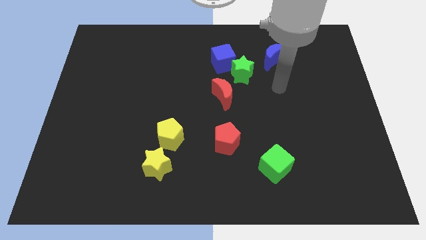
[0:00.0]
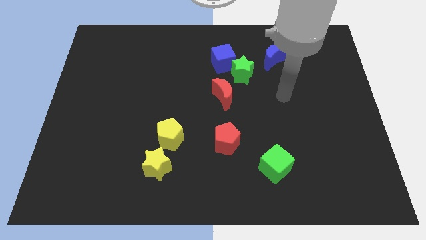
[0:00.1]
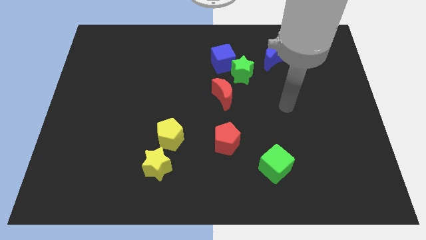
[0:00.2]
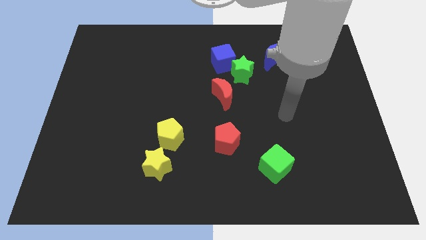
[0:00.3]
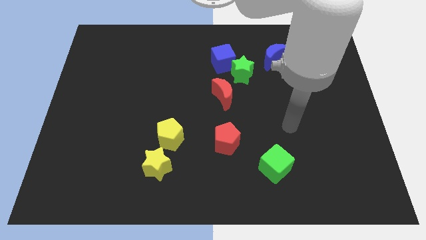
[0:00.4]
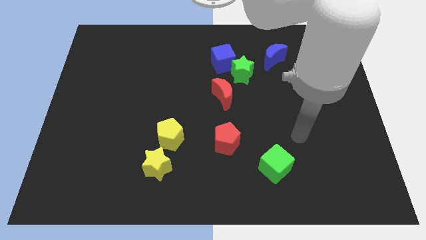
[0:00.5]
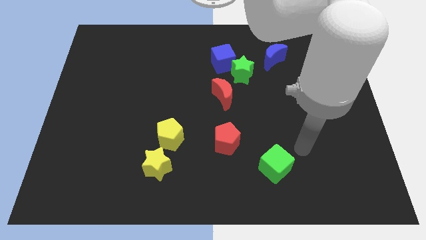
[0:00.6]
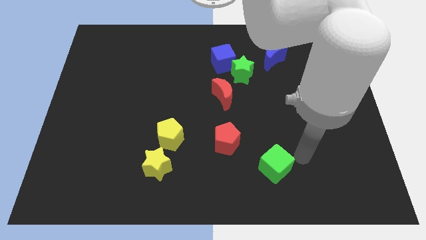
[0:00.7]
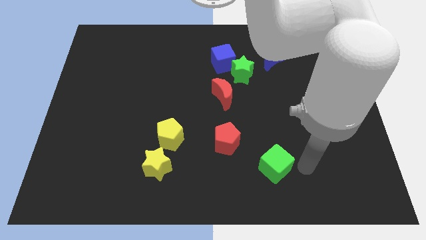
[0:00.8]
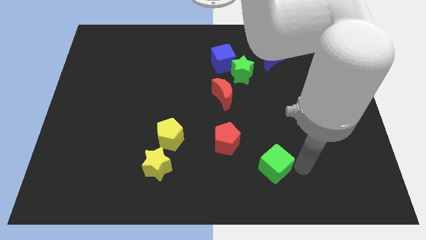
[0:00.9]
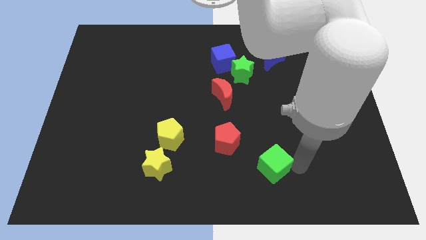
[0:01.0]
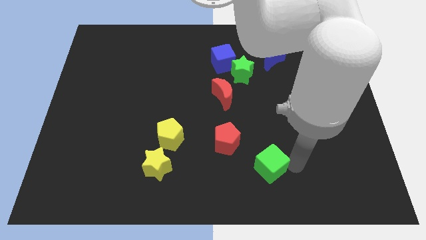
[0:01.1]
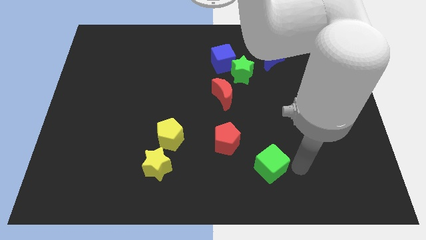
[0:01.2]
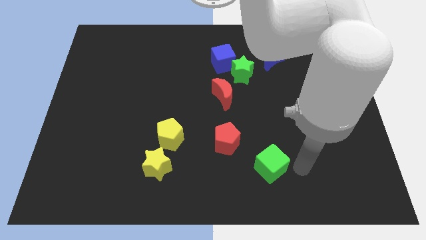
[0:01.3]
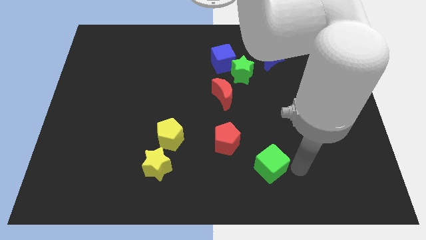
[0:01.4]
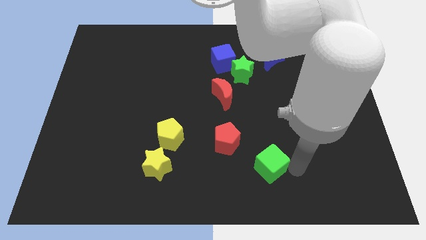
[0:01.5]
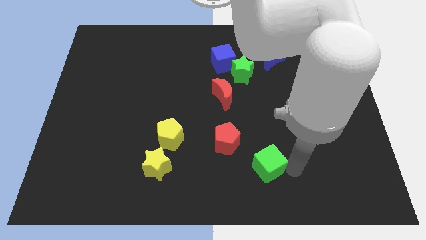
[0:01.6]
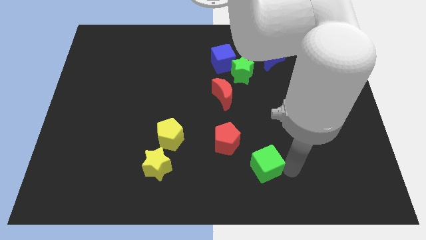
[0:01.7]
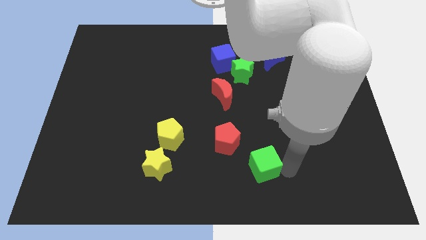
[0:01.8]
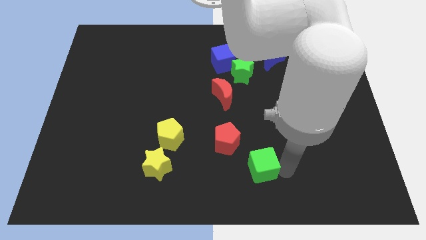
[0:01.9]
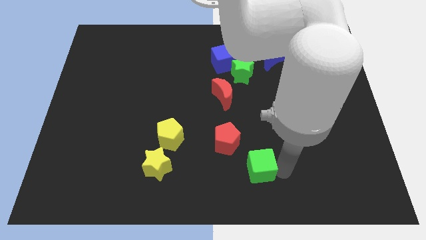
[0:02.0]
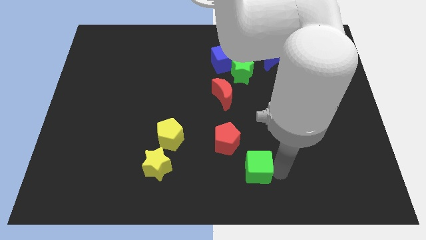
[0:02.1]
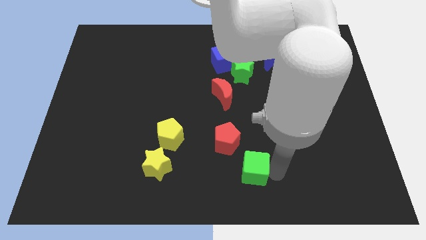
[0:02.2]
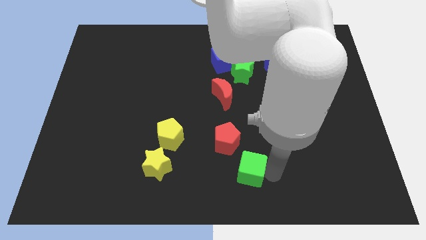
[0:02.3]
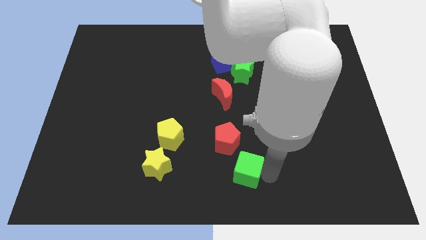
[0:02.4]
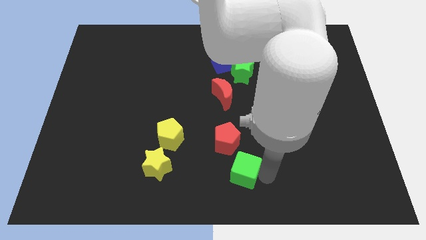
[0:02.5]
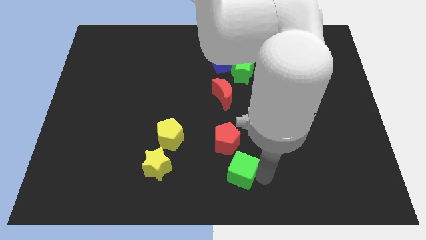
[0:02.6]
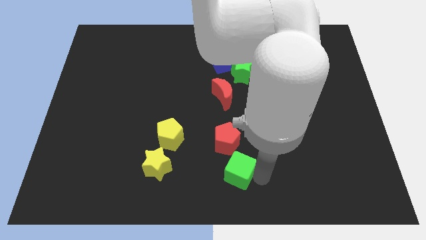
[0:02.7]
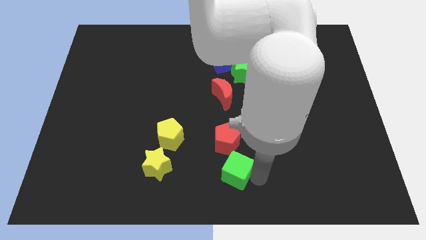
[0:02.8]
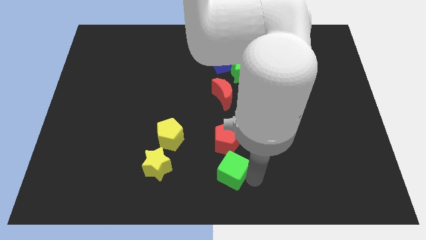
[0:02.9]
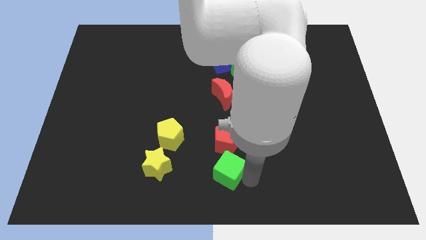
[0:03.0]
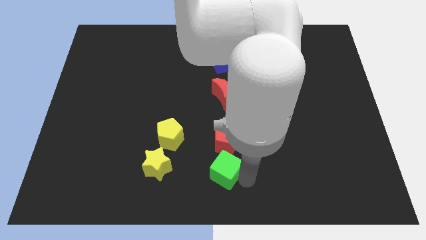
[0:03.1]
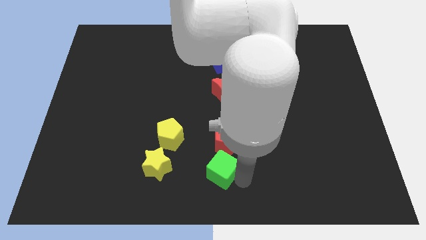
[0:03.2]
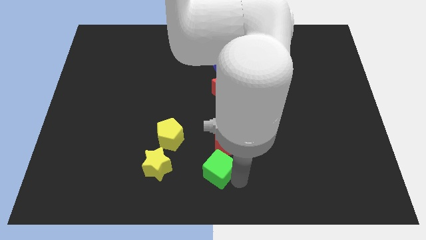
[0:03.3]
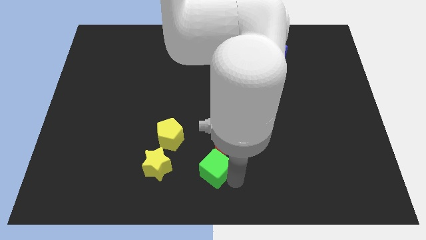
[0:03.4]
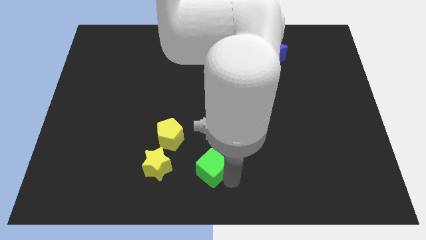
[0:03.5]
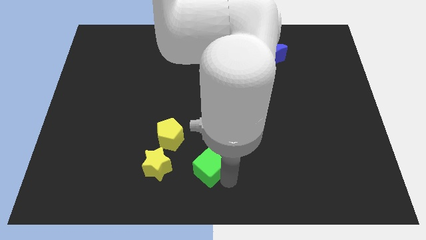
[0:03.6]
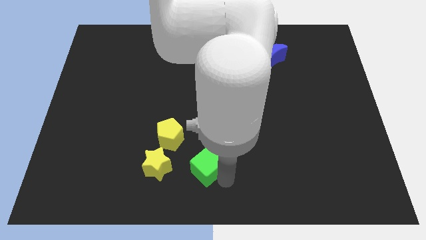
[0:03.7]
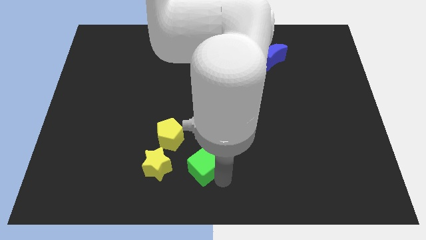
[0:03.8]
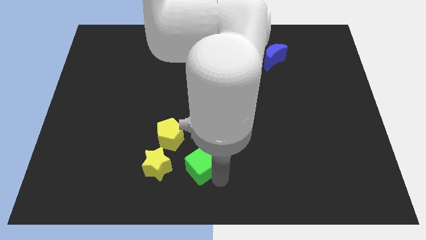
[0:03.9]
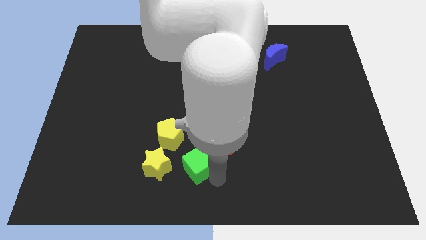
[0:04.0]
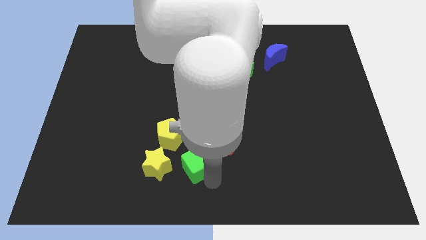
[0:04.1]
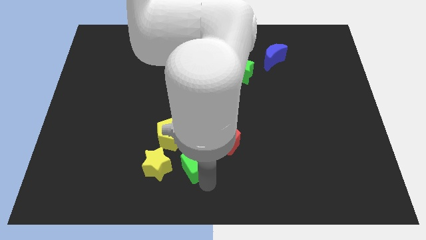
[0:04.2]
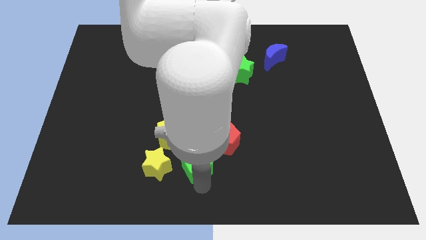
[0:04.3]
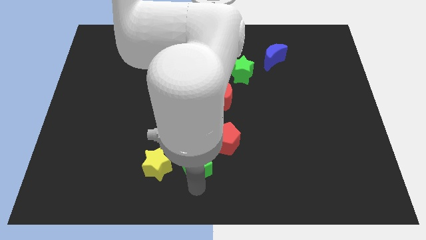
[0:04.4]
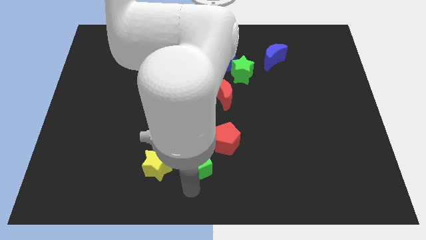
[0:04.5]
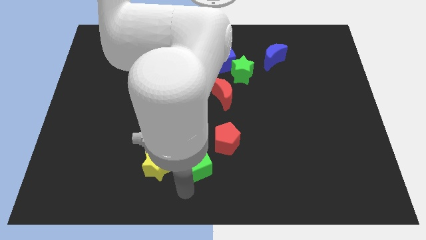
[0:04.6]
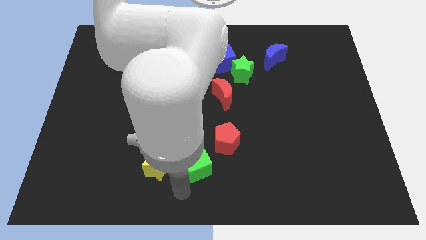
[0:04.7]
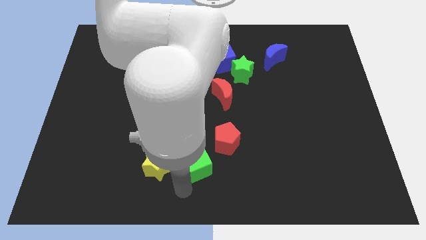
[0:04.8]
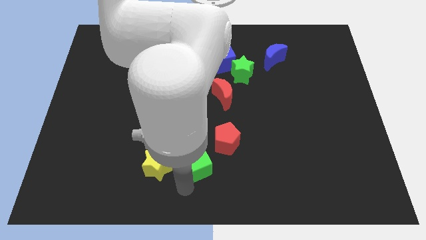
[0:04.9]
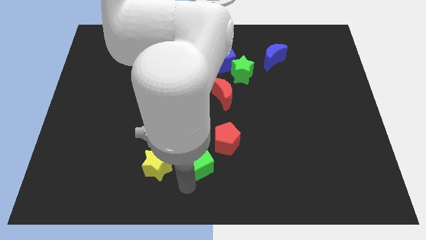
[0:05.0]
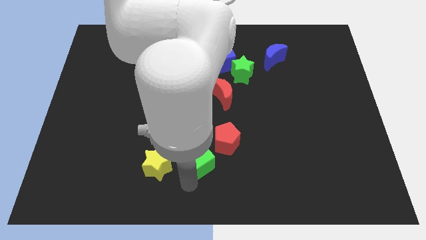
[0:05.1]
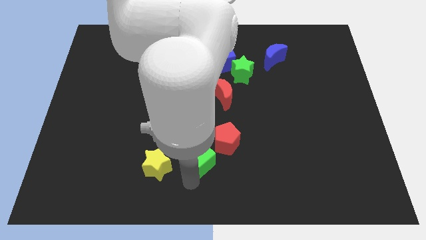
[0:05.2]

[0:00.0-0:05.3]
push the green cube diagonally up and to the right of the yellow star

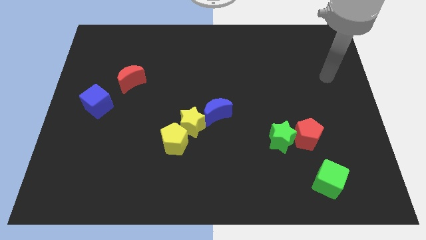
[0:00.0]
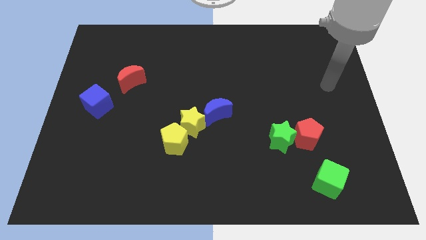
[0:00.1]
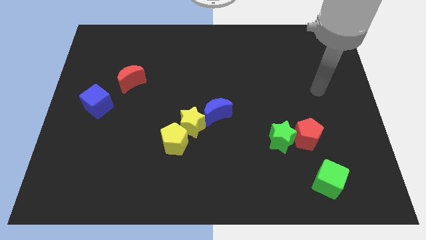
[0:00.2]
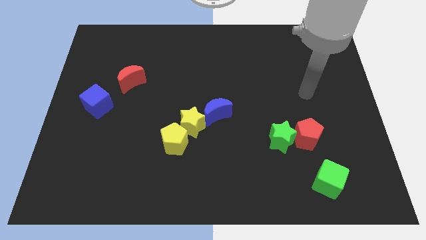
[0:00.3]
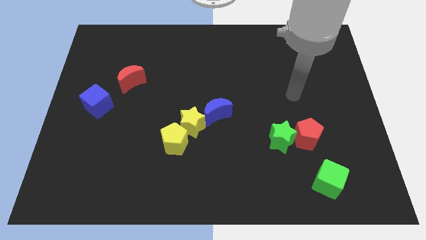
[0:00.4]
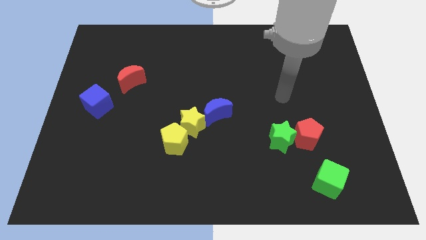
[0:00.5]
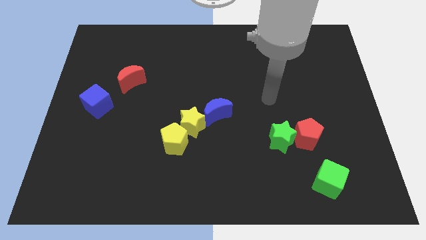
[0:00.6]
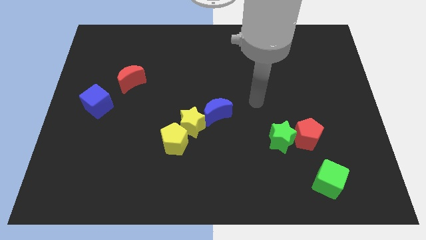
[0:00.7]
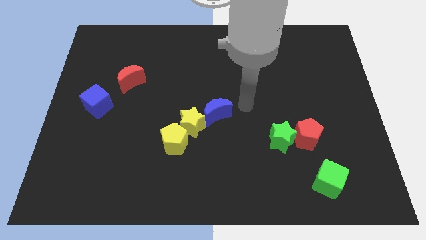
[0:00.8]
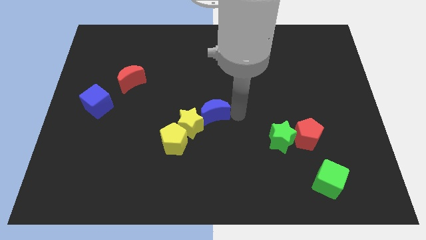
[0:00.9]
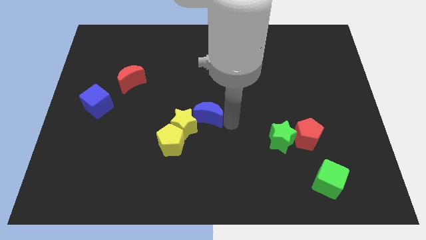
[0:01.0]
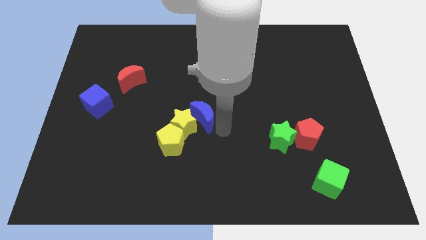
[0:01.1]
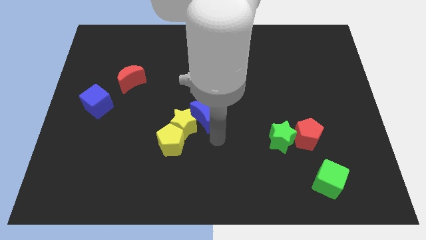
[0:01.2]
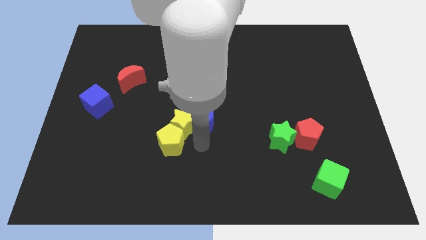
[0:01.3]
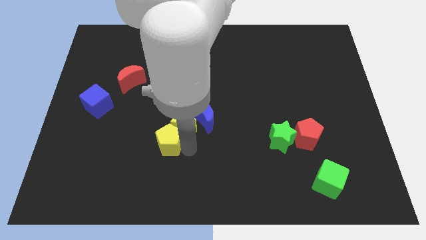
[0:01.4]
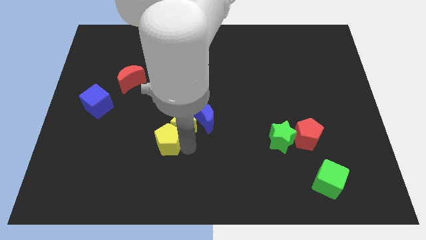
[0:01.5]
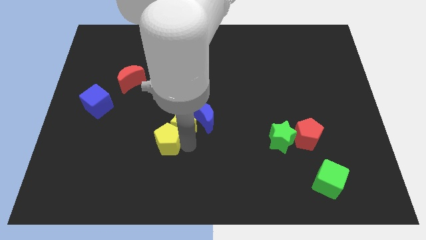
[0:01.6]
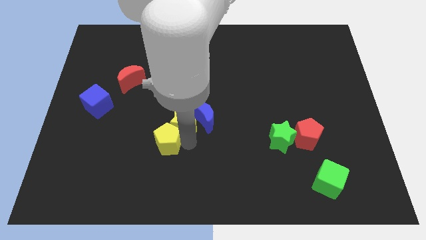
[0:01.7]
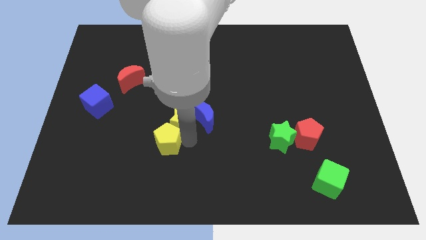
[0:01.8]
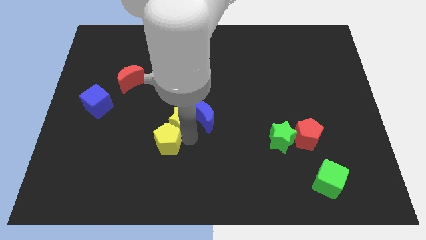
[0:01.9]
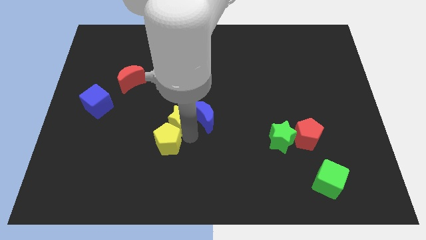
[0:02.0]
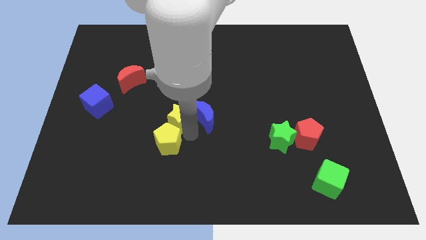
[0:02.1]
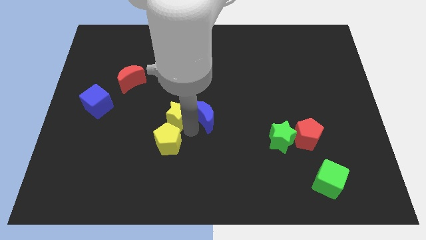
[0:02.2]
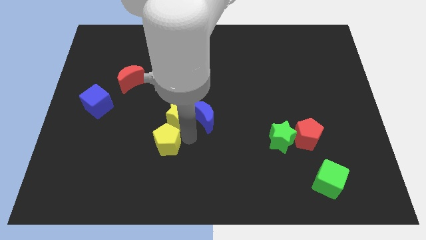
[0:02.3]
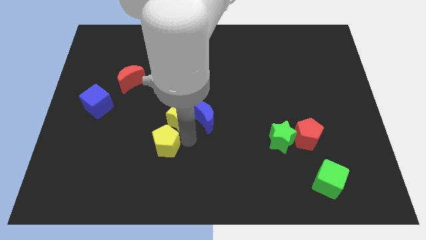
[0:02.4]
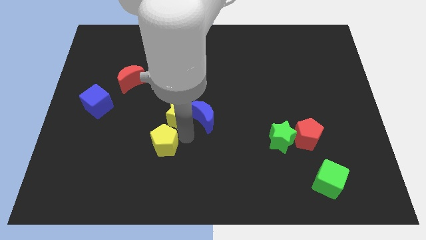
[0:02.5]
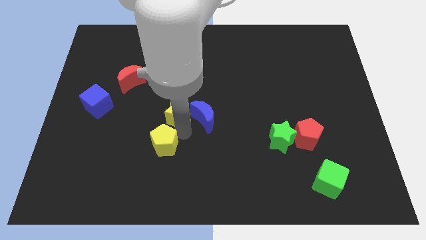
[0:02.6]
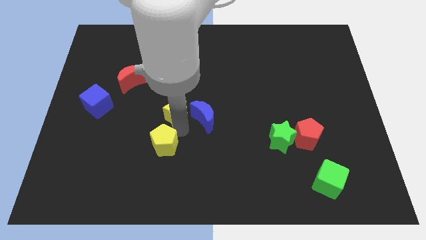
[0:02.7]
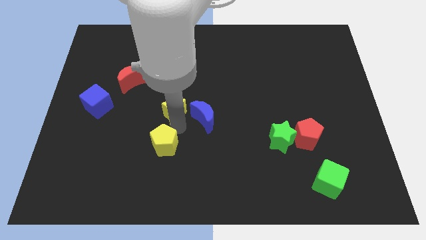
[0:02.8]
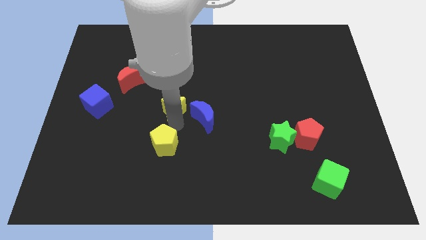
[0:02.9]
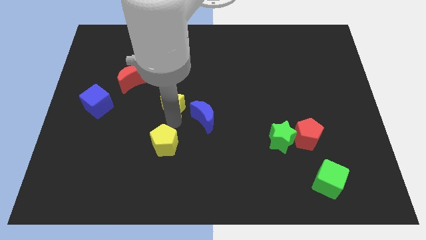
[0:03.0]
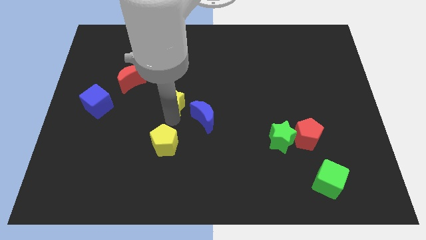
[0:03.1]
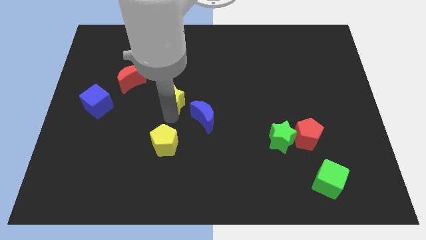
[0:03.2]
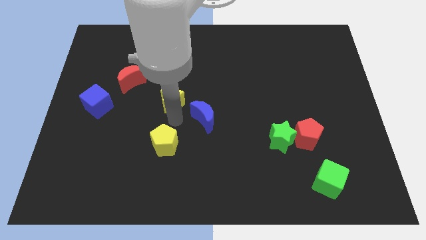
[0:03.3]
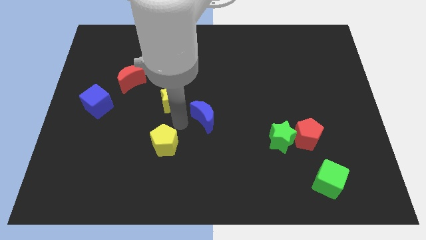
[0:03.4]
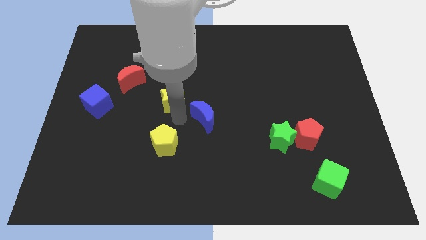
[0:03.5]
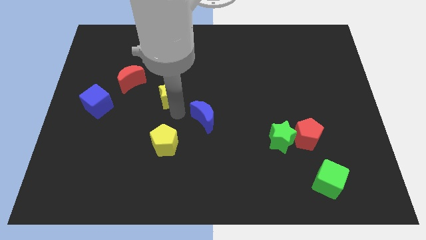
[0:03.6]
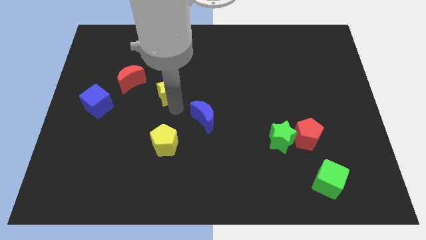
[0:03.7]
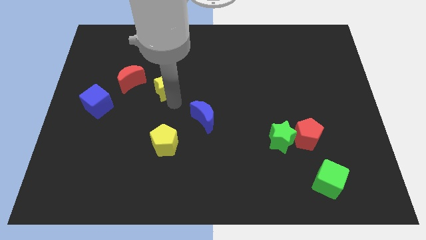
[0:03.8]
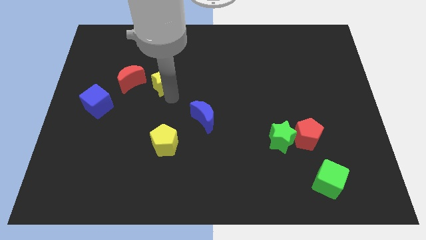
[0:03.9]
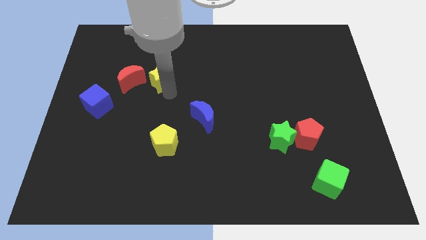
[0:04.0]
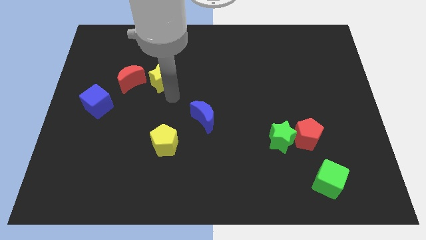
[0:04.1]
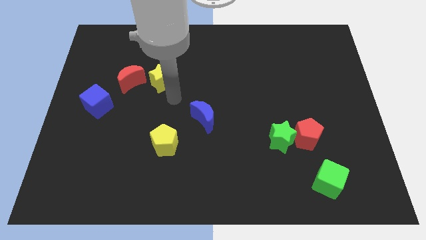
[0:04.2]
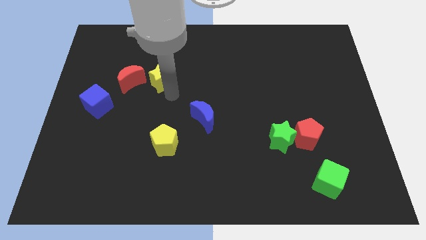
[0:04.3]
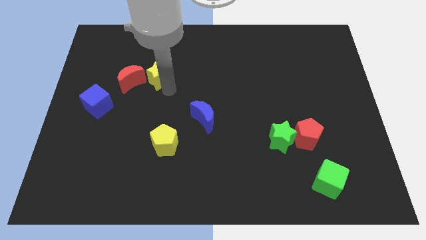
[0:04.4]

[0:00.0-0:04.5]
put the yellow star diagonally up and to the right of the red moon
